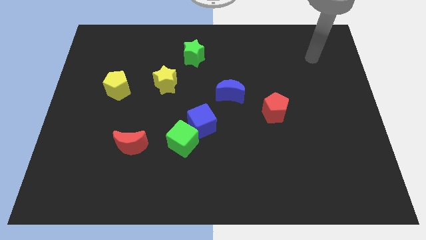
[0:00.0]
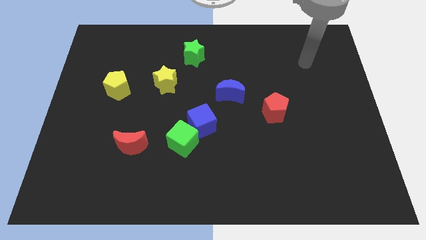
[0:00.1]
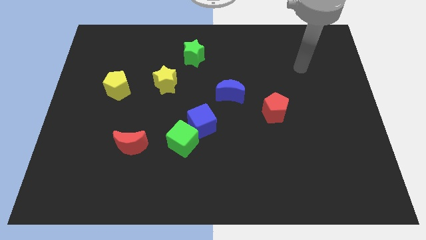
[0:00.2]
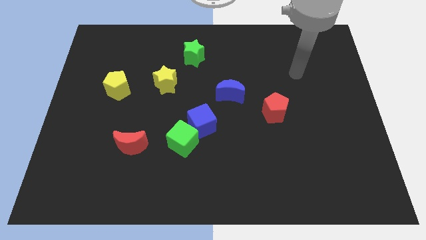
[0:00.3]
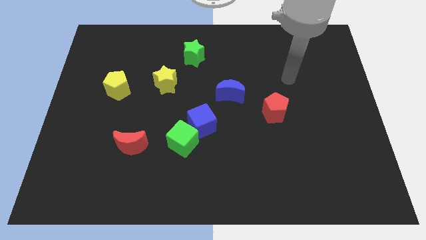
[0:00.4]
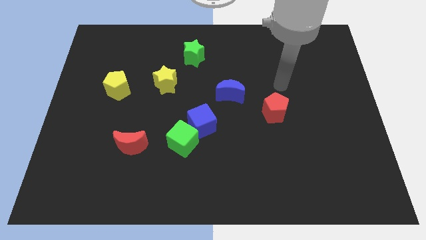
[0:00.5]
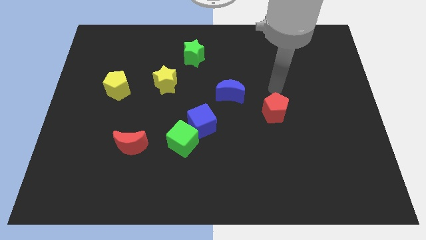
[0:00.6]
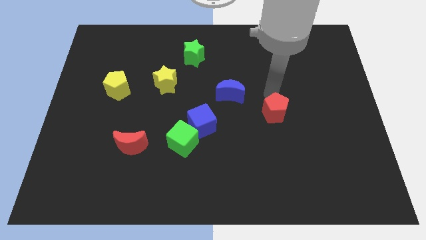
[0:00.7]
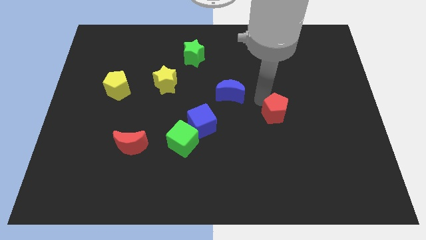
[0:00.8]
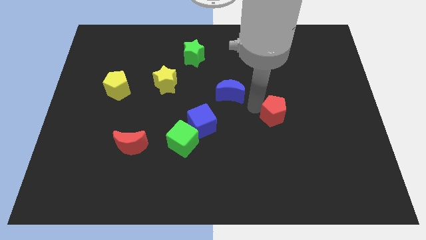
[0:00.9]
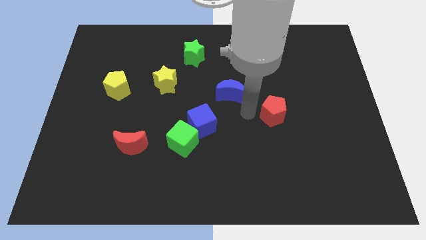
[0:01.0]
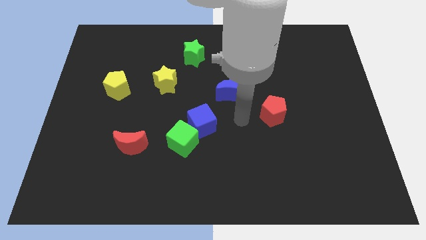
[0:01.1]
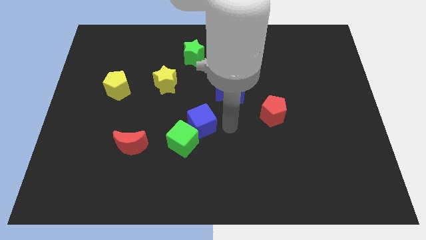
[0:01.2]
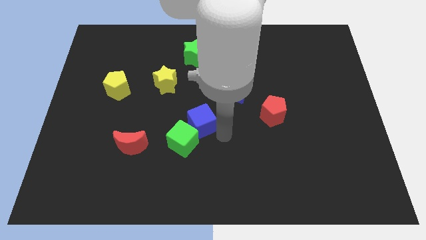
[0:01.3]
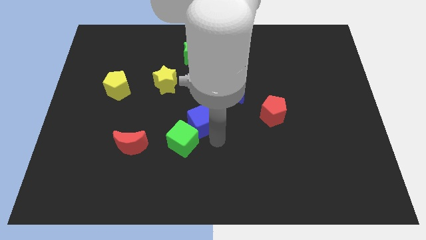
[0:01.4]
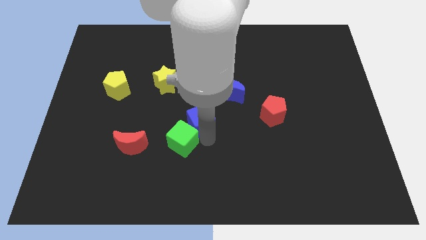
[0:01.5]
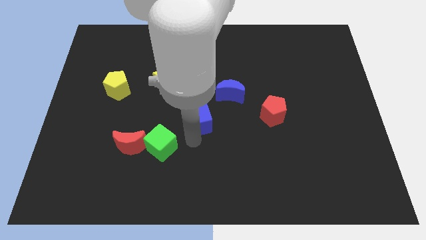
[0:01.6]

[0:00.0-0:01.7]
separate the blue cube from the green cube

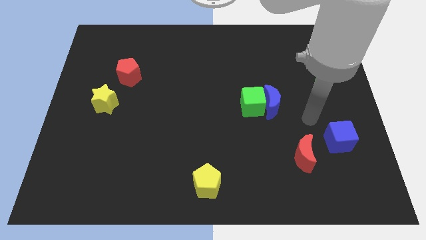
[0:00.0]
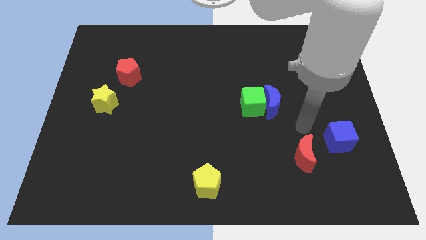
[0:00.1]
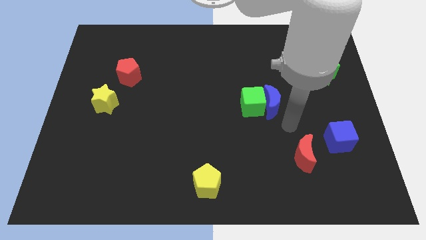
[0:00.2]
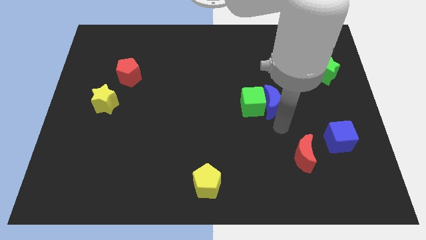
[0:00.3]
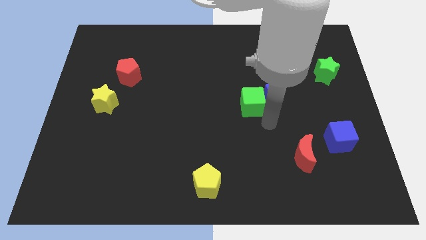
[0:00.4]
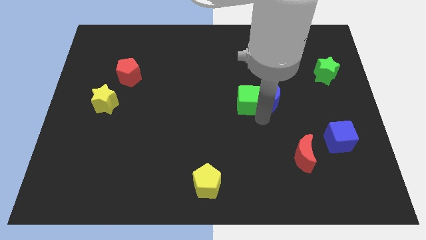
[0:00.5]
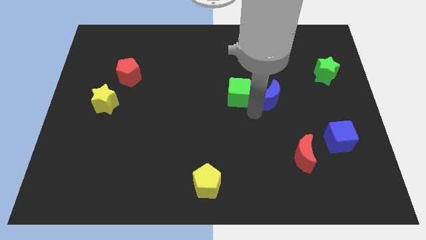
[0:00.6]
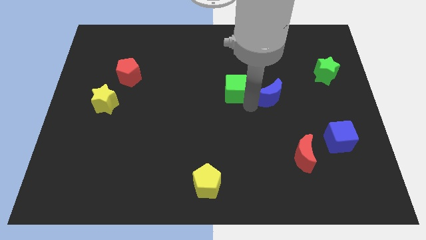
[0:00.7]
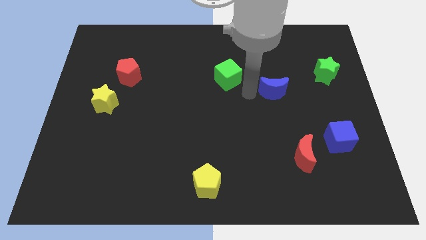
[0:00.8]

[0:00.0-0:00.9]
move the blue moon away from the green cube

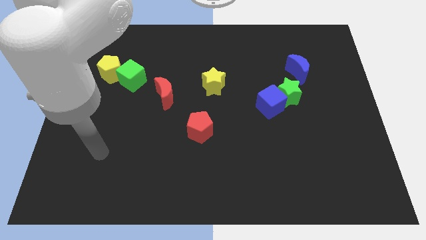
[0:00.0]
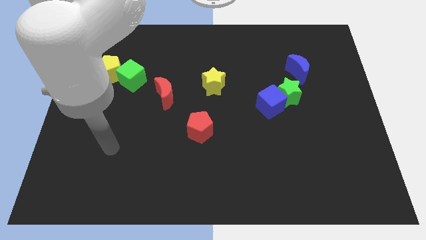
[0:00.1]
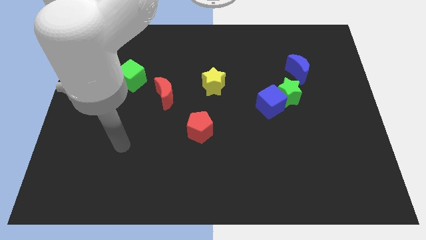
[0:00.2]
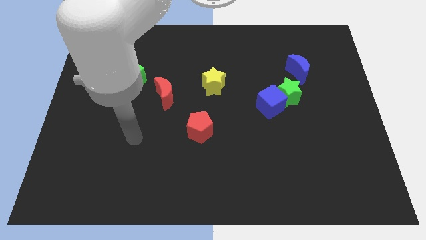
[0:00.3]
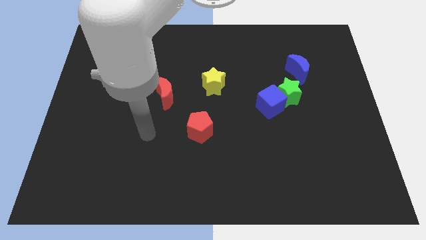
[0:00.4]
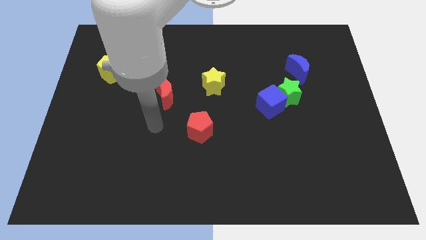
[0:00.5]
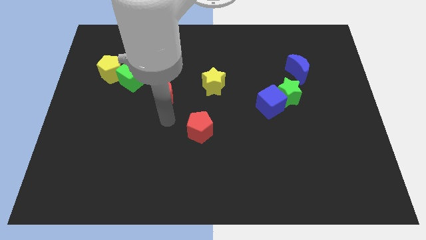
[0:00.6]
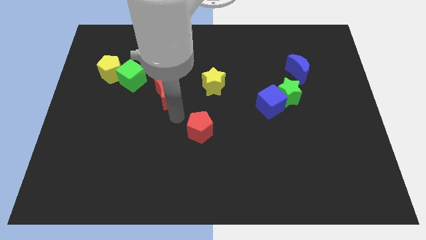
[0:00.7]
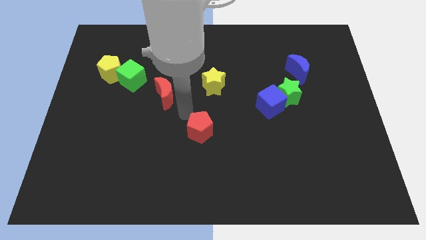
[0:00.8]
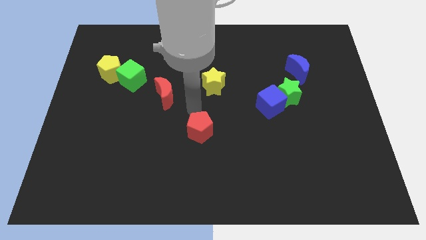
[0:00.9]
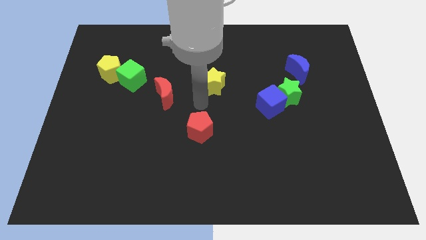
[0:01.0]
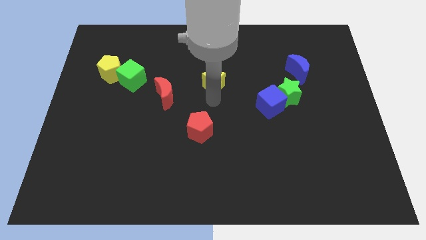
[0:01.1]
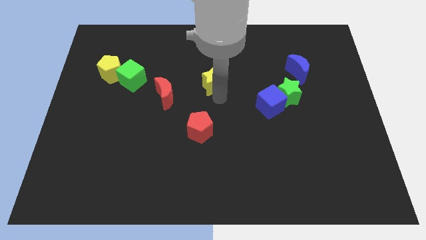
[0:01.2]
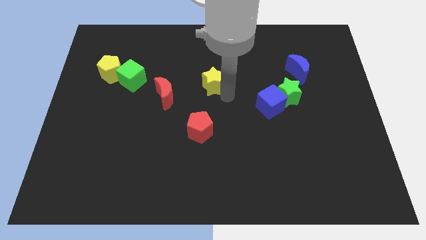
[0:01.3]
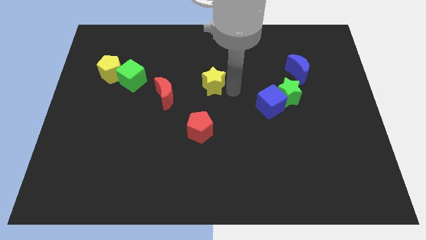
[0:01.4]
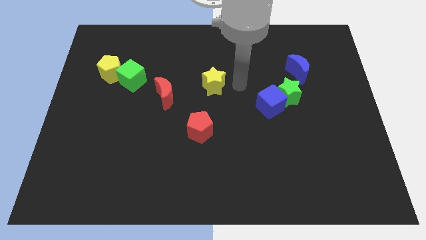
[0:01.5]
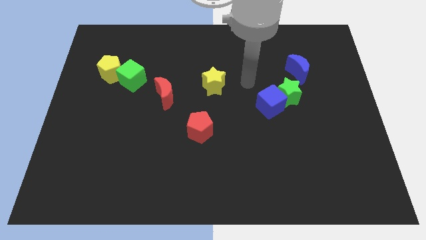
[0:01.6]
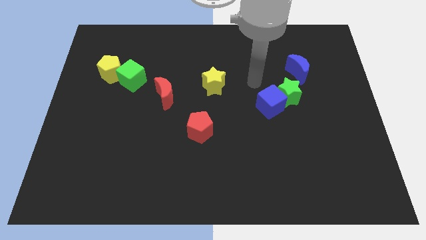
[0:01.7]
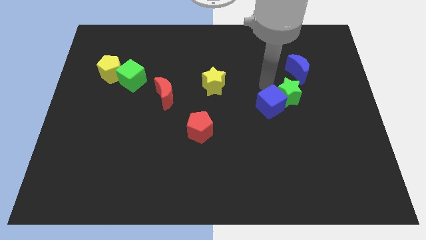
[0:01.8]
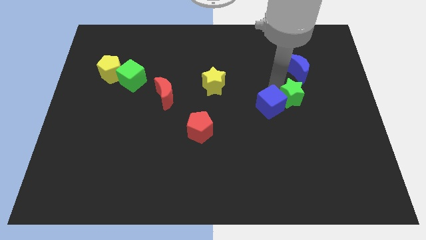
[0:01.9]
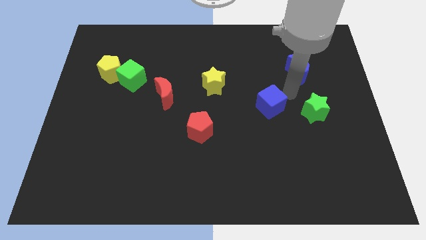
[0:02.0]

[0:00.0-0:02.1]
pull the blue cube apart from the green star

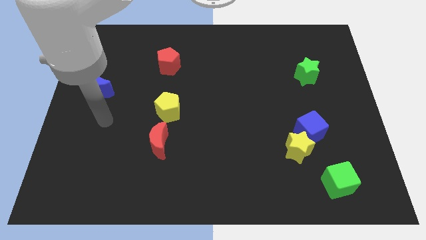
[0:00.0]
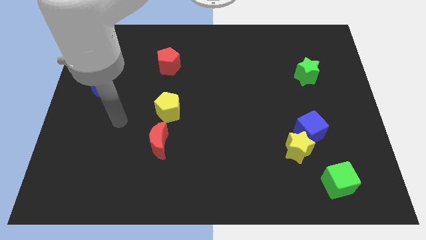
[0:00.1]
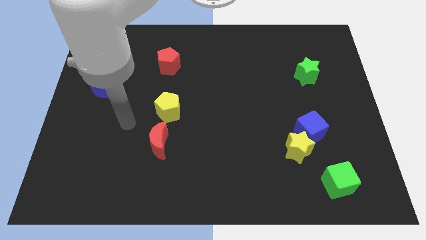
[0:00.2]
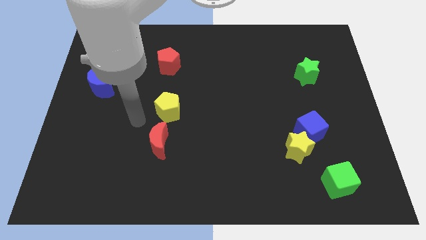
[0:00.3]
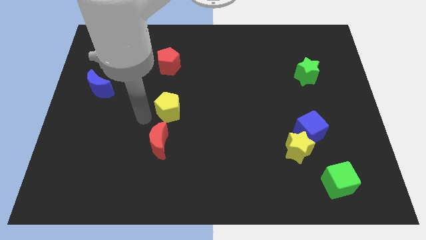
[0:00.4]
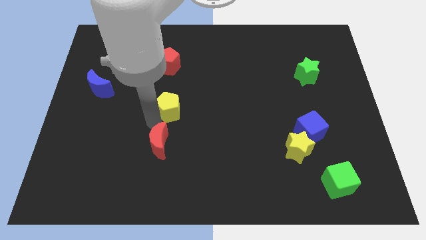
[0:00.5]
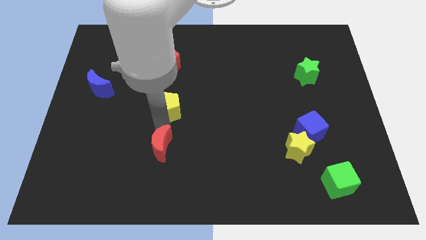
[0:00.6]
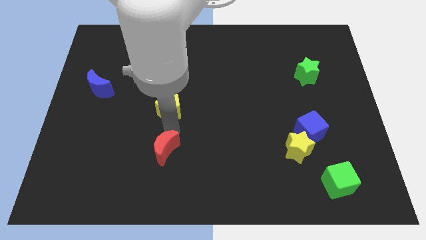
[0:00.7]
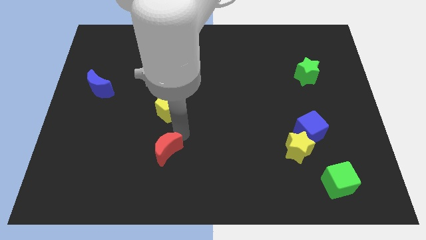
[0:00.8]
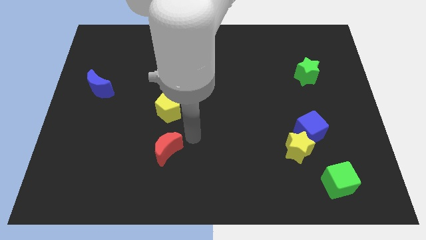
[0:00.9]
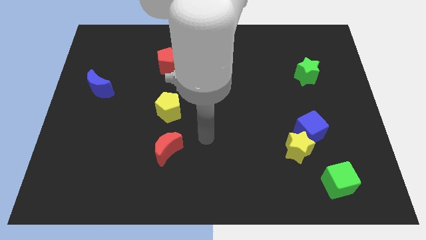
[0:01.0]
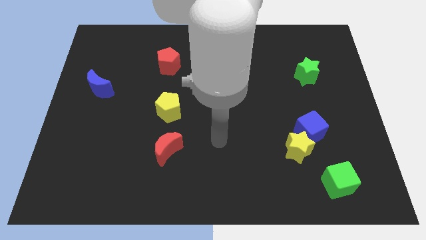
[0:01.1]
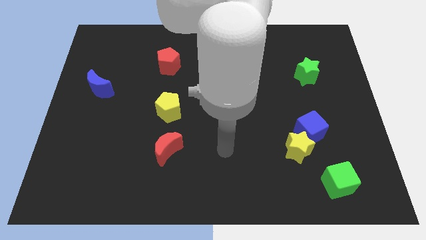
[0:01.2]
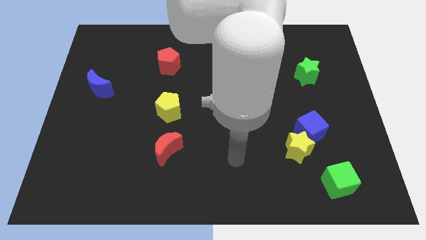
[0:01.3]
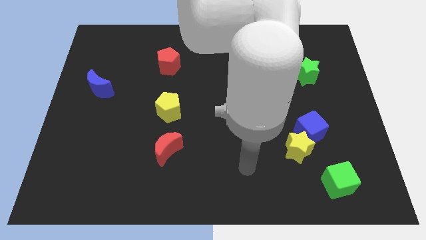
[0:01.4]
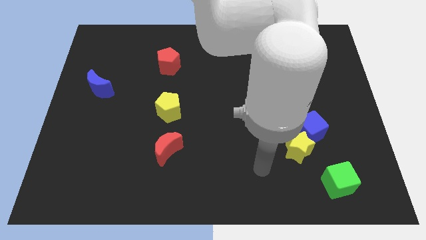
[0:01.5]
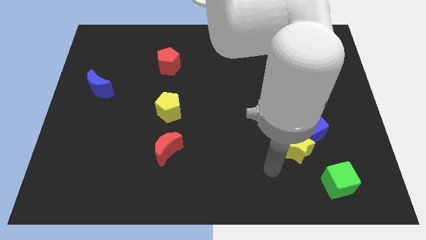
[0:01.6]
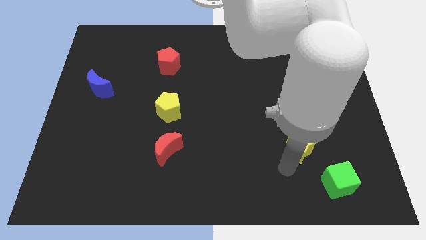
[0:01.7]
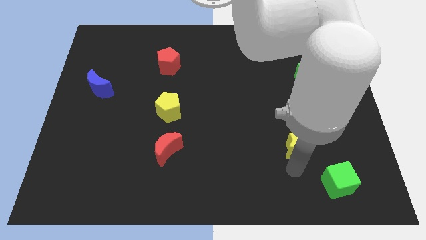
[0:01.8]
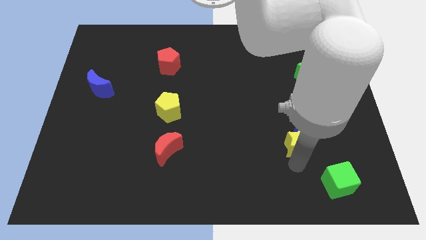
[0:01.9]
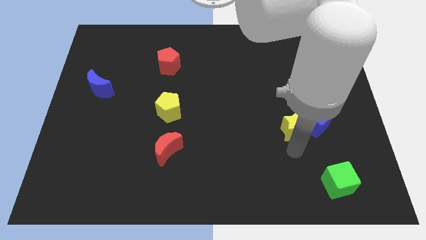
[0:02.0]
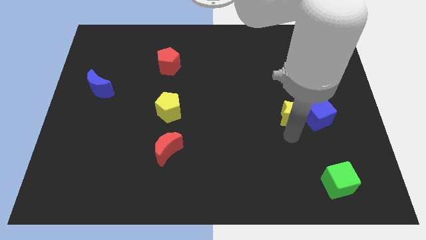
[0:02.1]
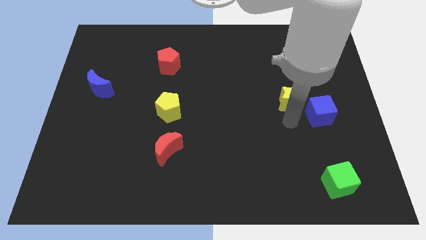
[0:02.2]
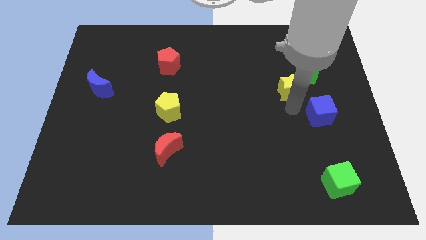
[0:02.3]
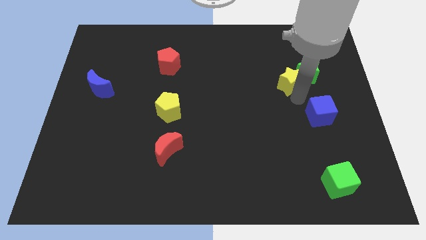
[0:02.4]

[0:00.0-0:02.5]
pull the blue cube apart from the yellow star

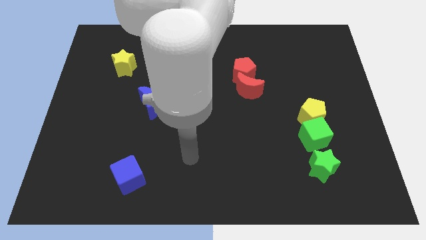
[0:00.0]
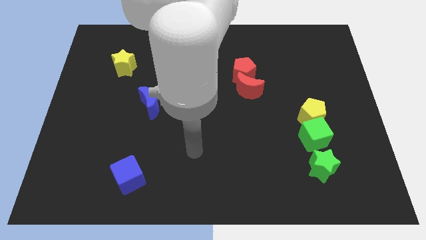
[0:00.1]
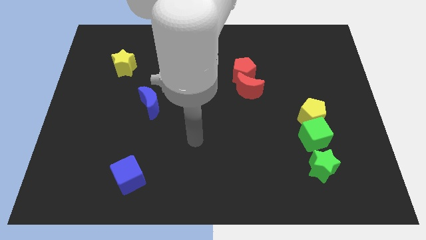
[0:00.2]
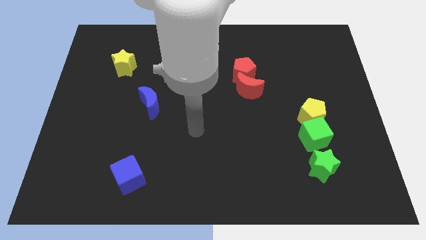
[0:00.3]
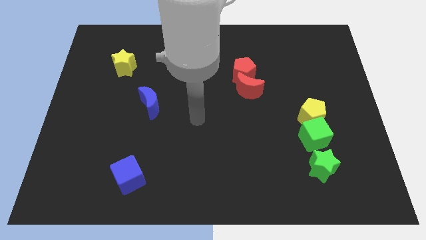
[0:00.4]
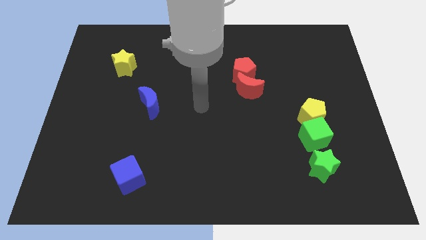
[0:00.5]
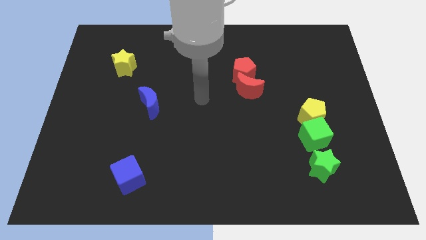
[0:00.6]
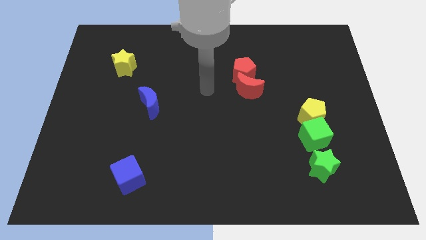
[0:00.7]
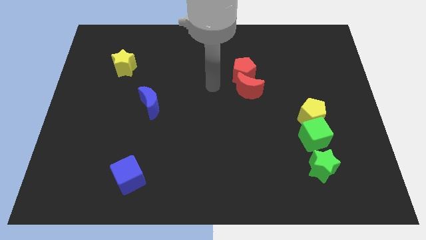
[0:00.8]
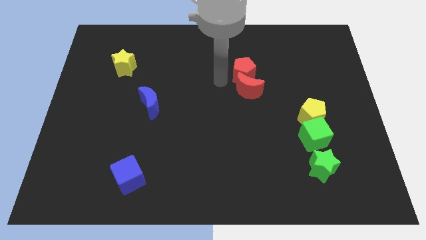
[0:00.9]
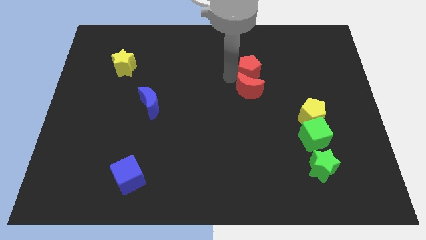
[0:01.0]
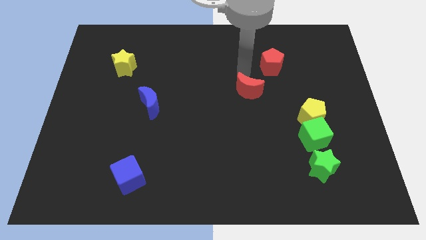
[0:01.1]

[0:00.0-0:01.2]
pull the red moon apart from the red pentagon

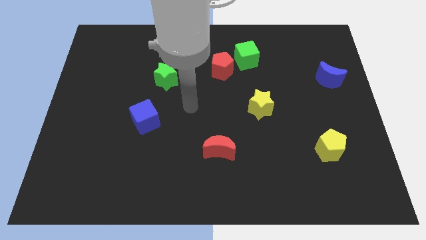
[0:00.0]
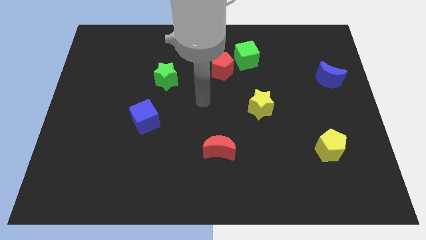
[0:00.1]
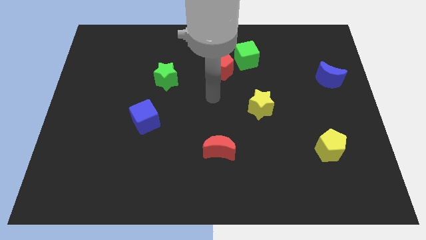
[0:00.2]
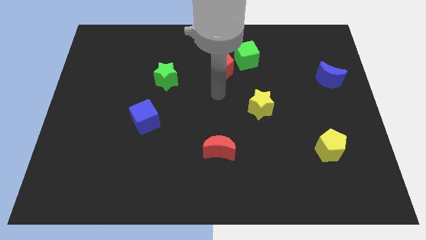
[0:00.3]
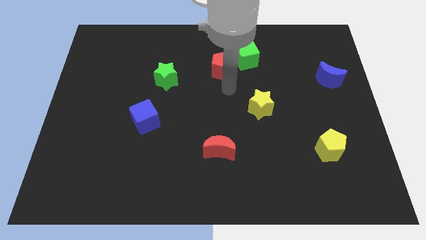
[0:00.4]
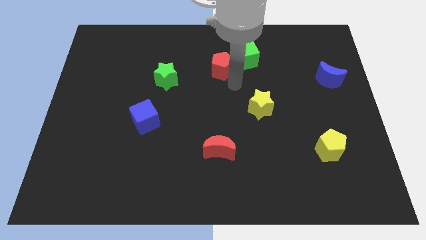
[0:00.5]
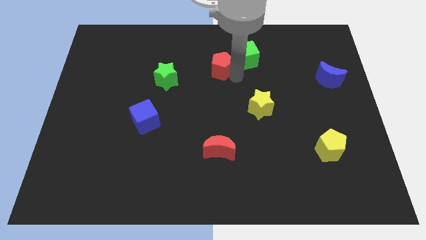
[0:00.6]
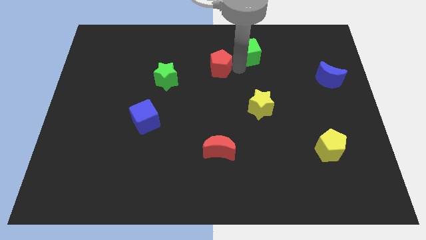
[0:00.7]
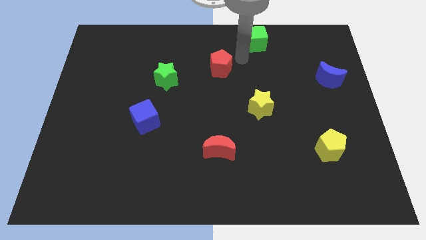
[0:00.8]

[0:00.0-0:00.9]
separate the red pentagon from the green cube
